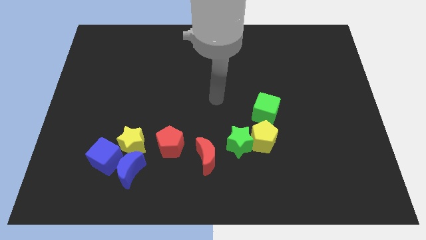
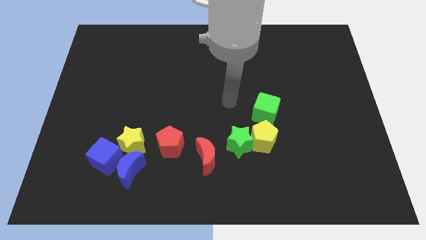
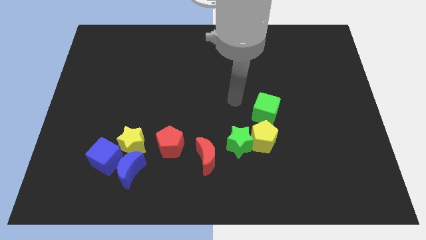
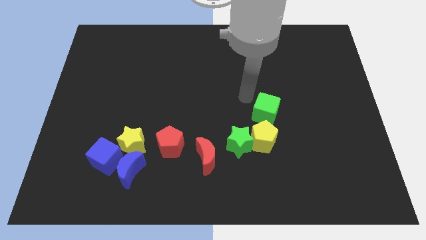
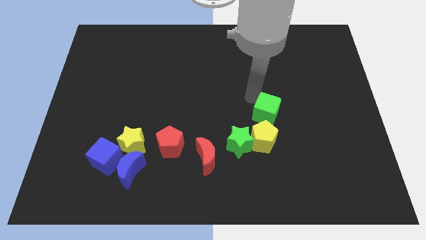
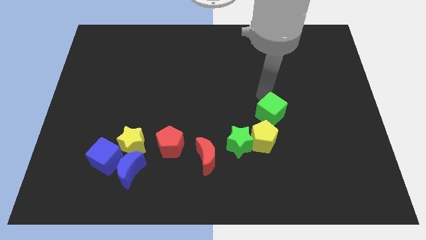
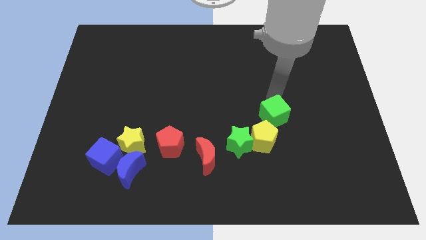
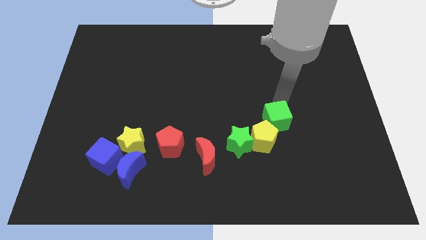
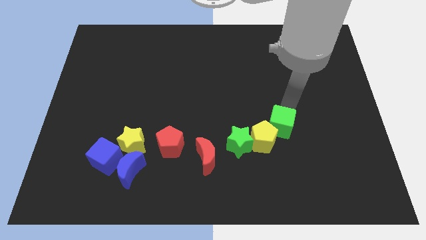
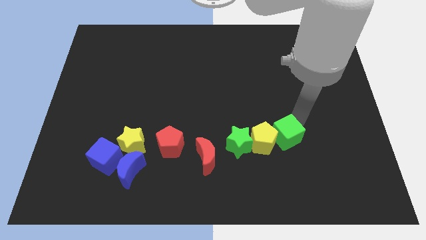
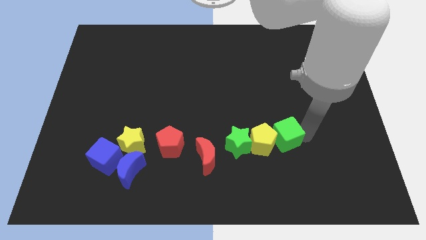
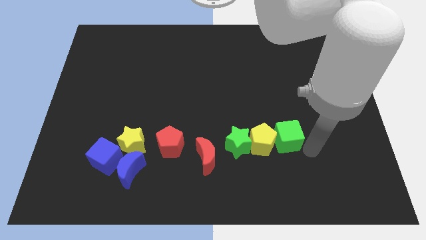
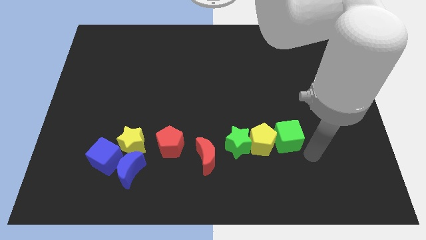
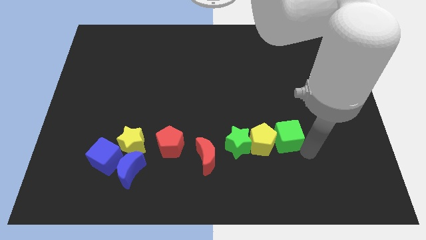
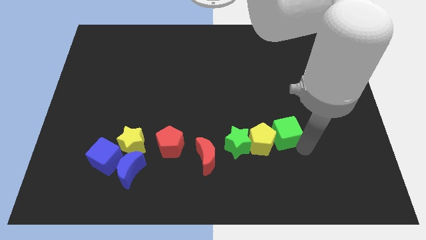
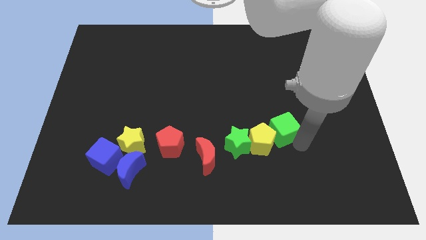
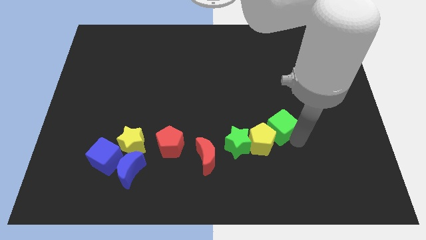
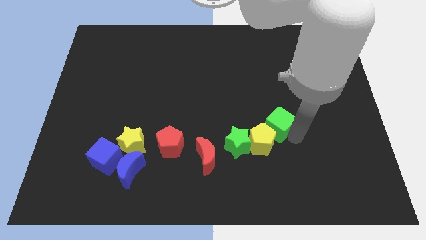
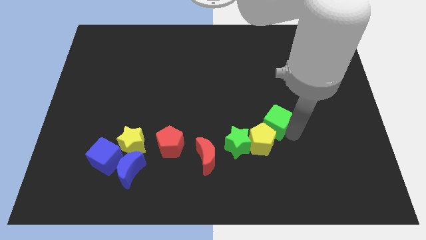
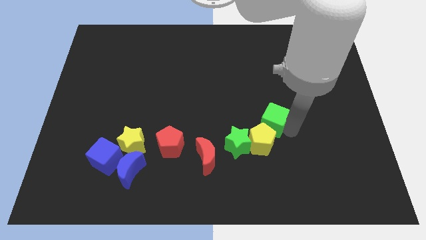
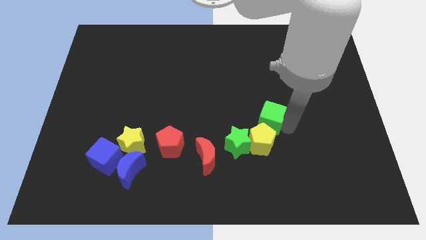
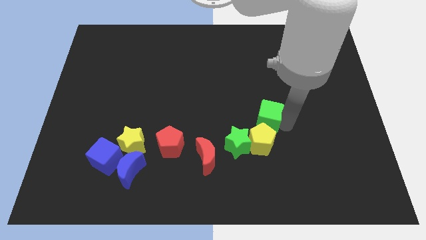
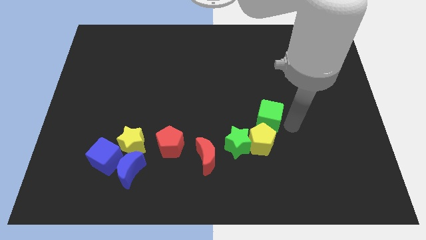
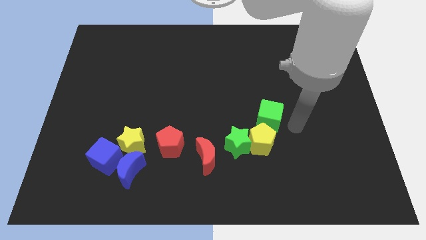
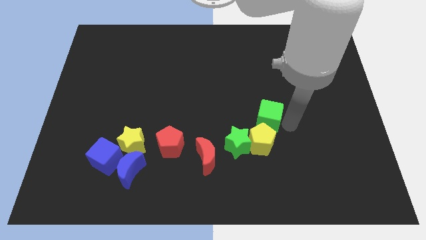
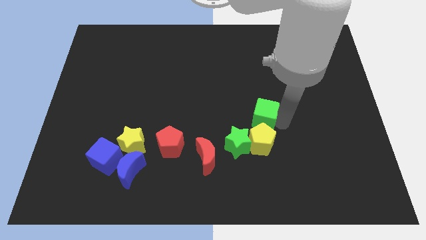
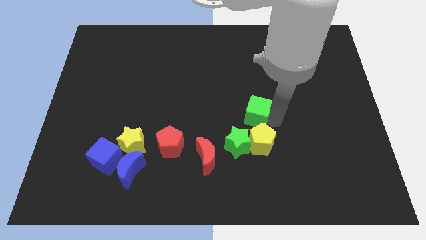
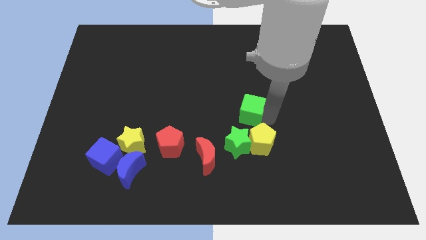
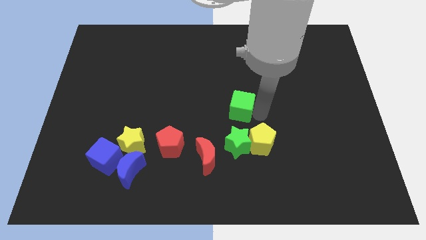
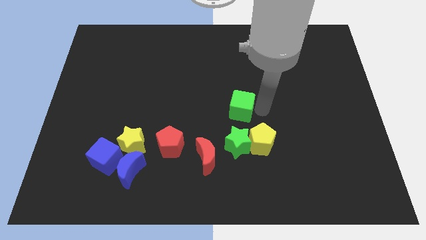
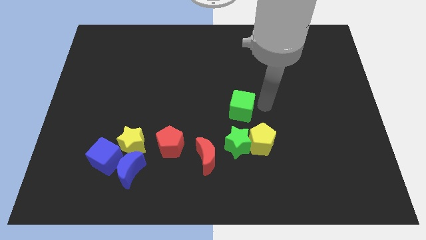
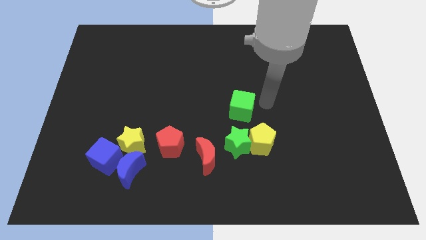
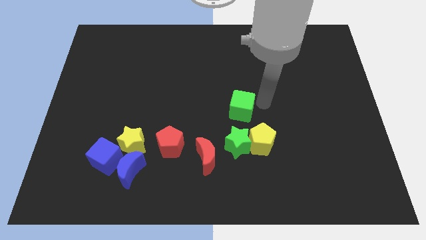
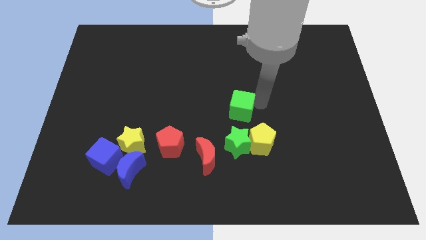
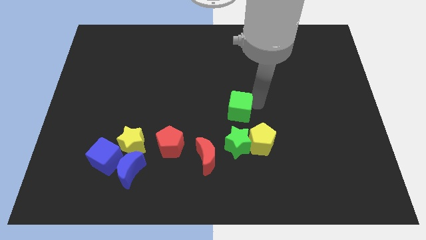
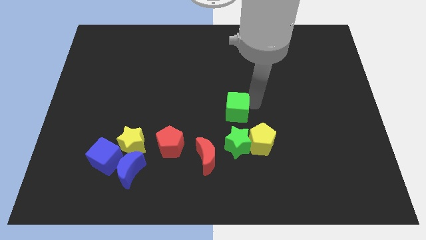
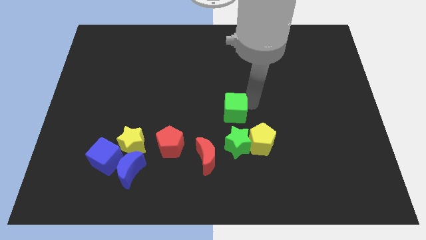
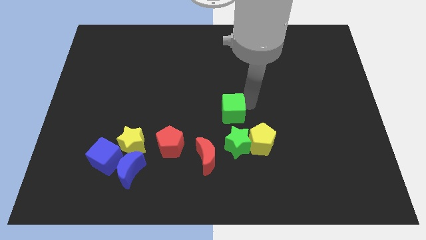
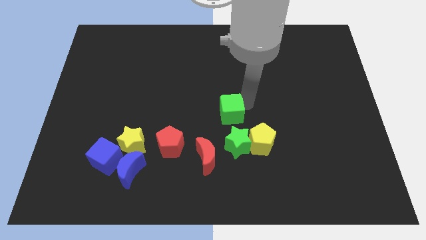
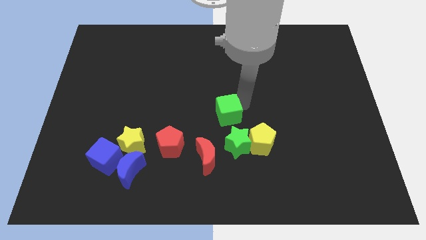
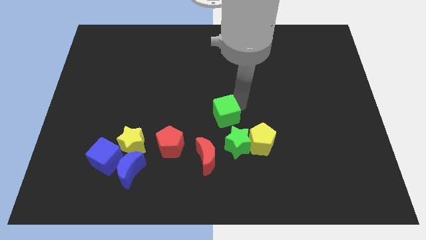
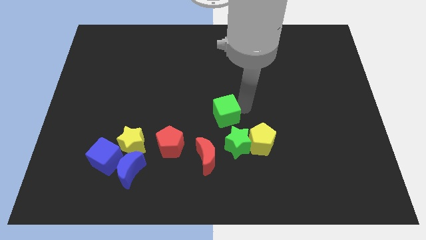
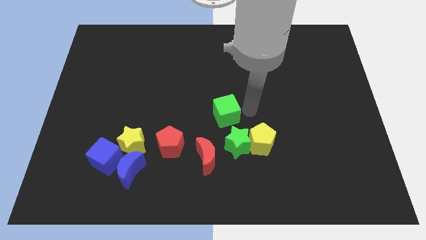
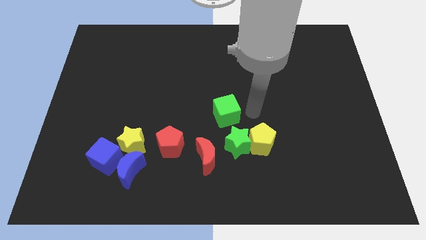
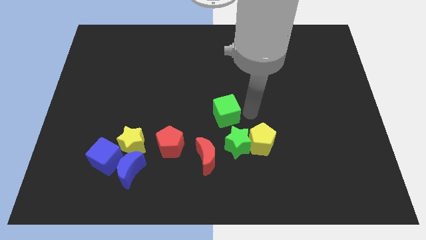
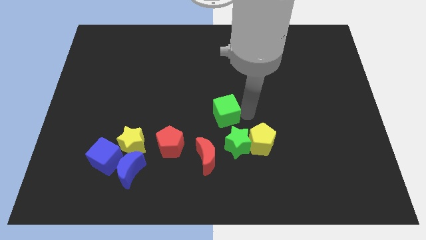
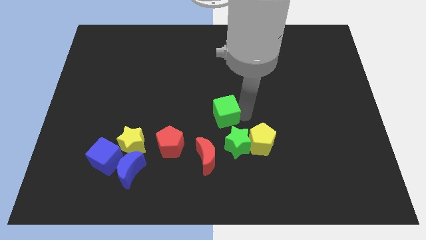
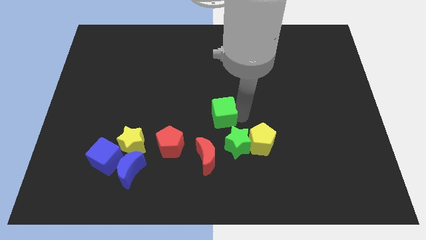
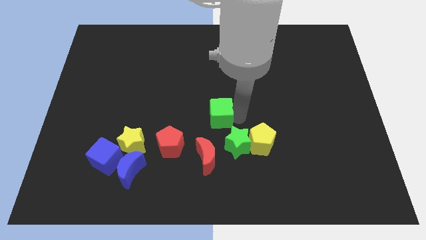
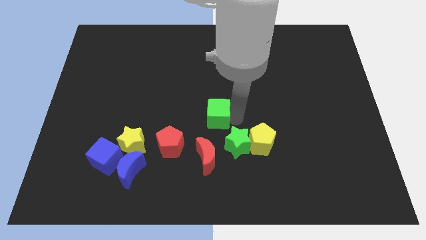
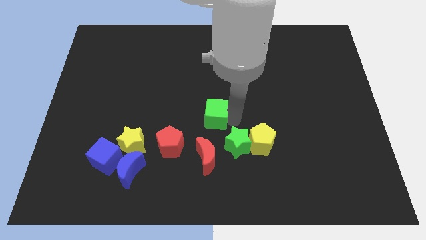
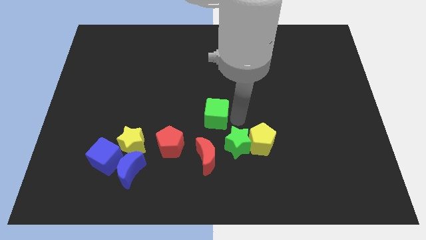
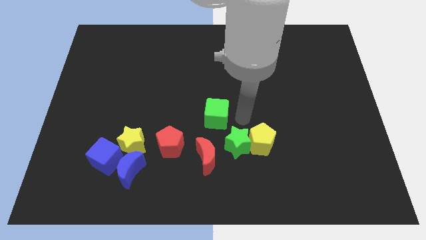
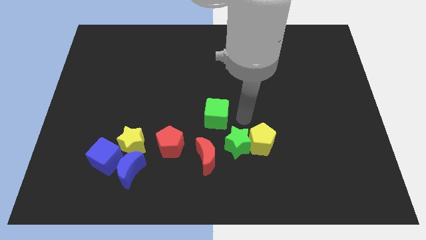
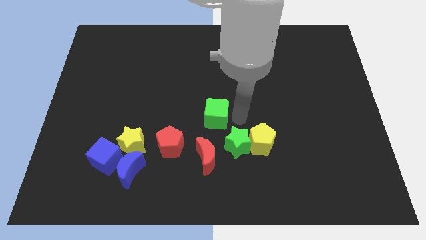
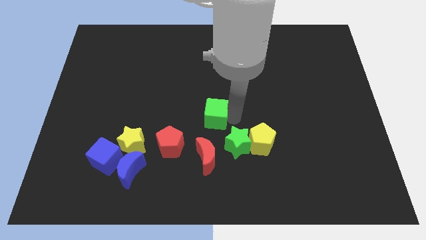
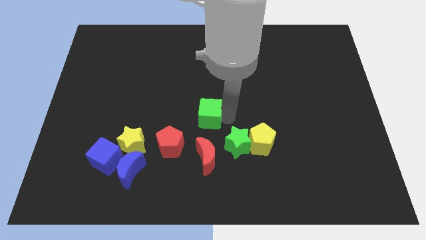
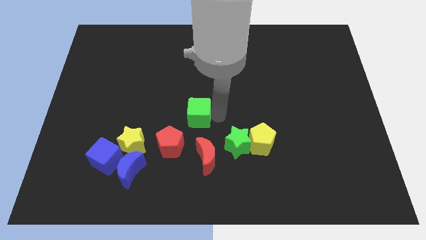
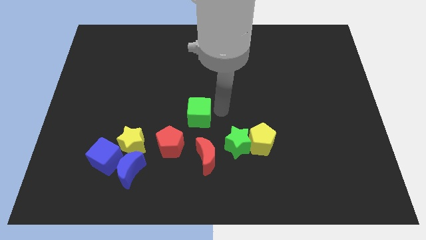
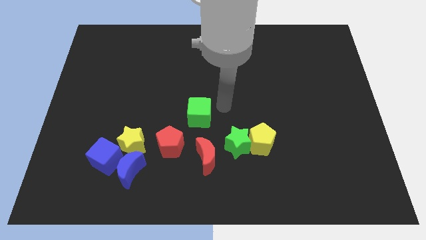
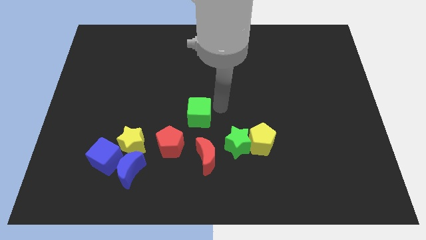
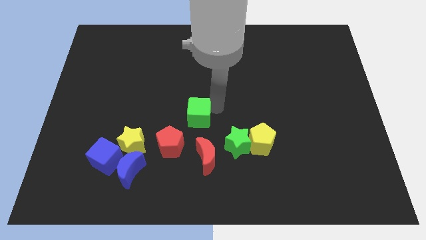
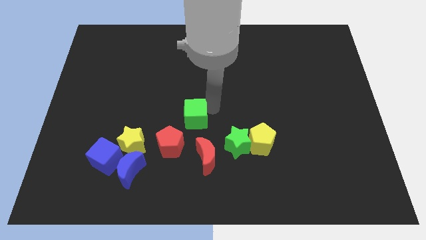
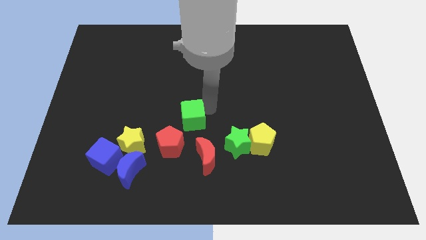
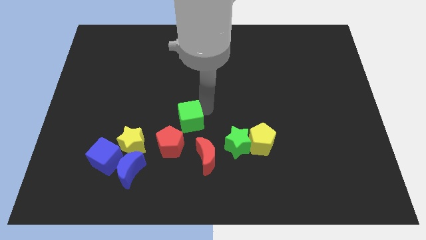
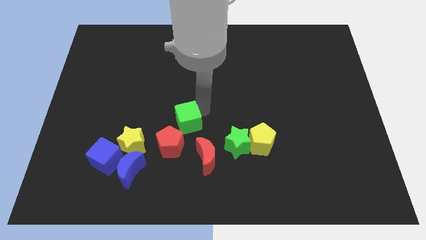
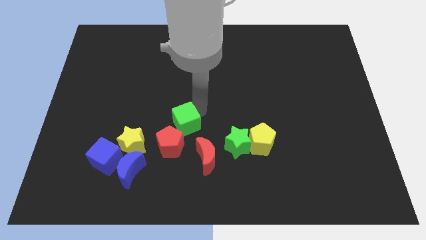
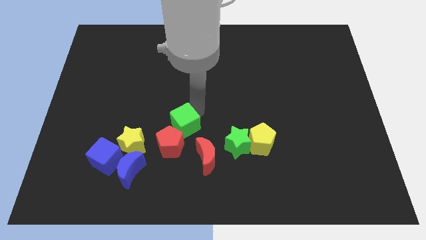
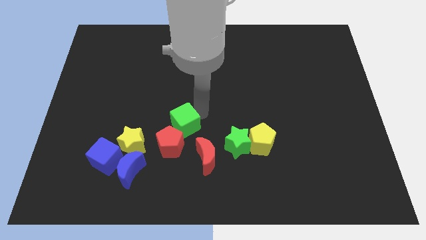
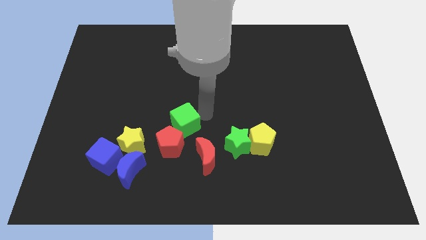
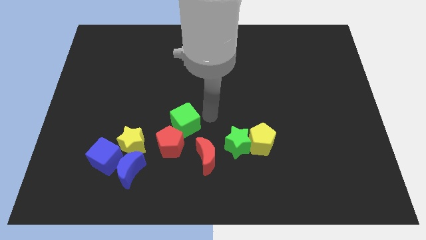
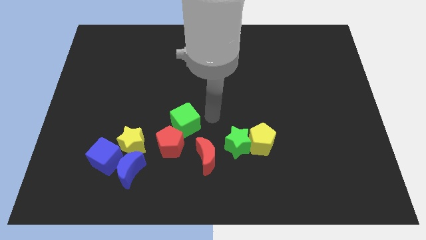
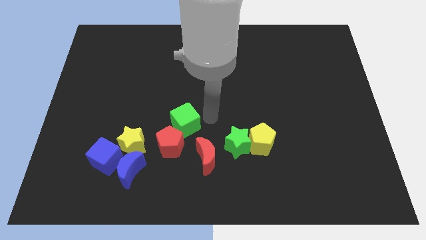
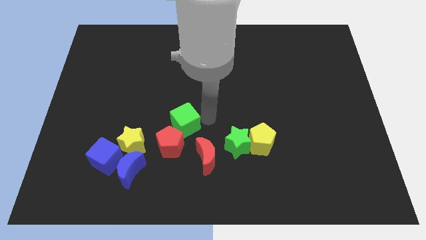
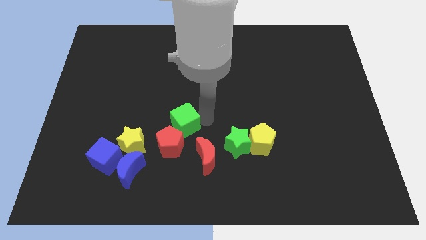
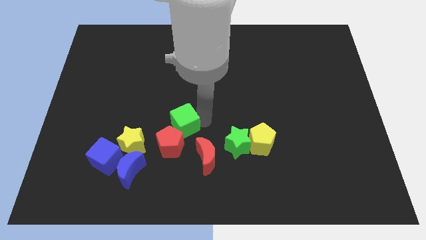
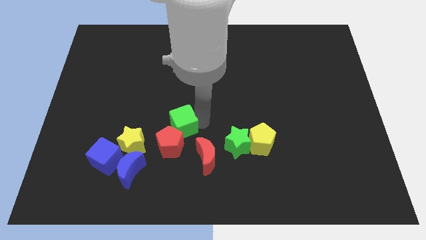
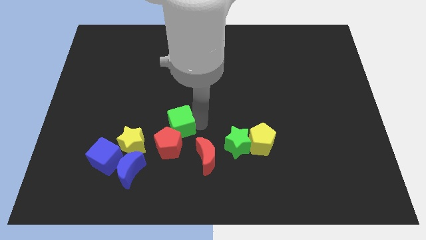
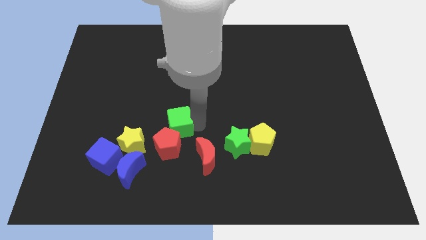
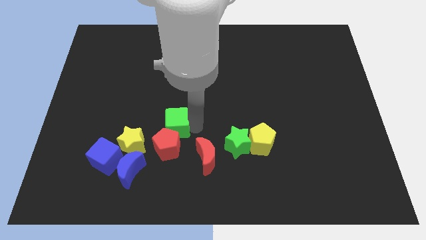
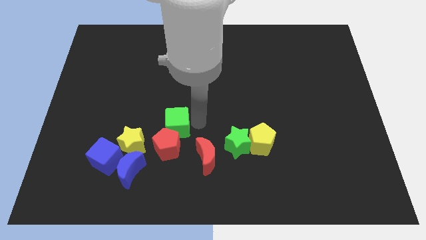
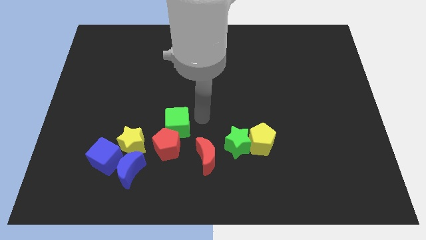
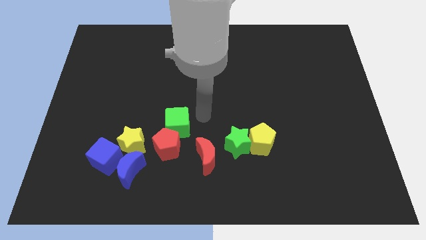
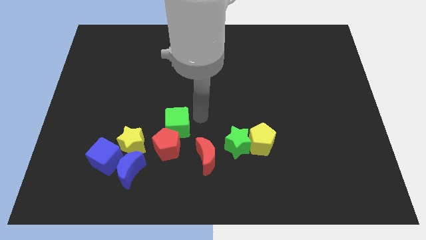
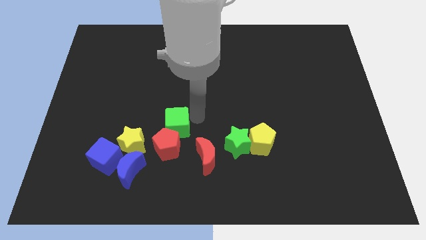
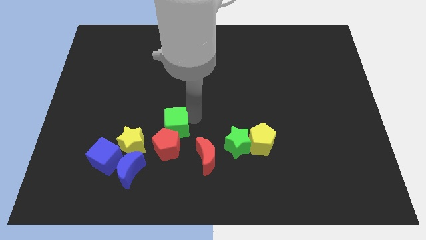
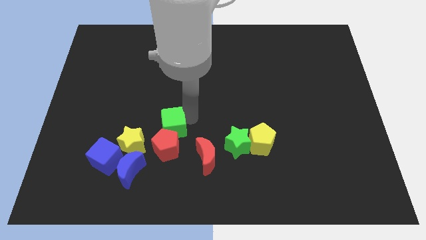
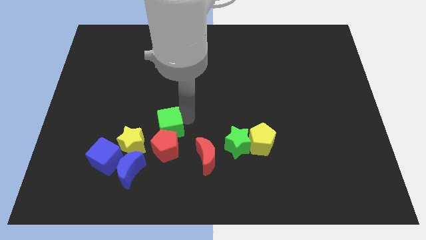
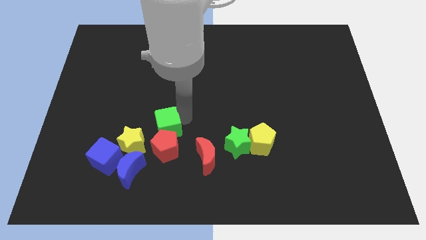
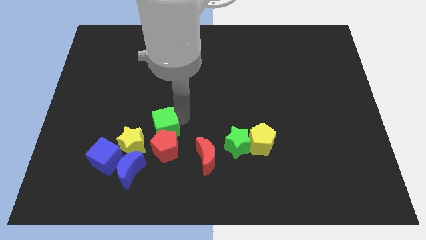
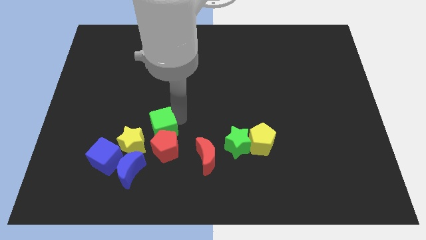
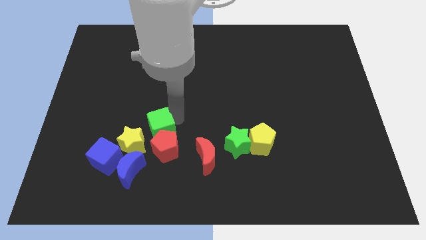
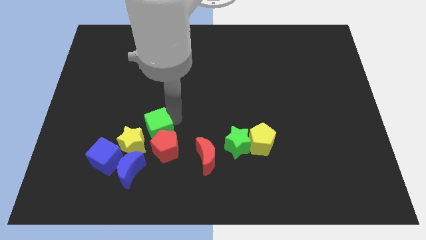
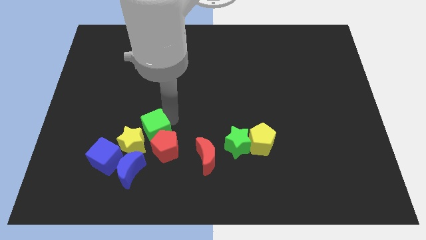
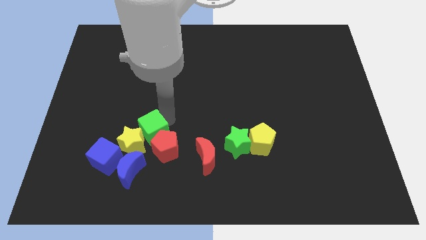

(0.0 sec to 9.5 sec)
slide the green cube towards the yellow star
